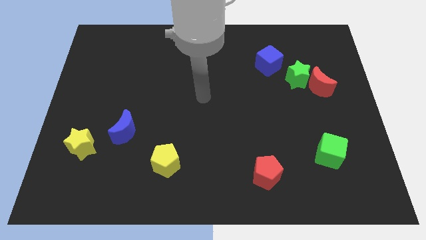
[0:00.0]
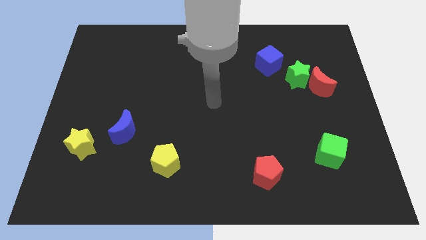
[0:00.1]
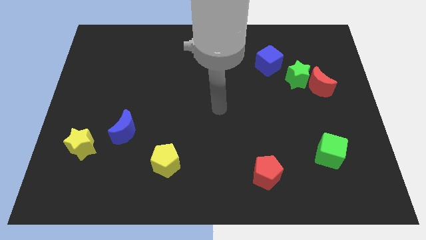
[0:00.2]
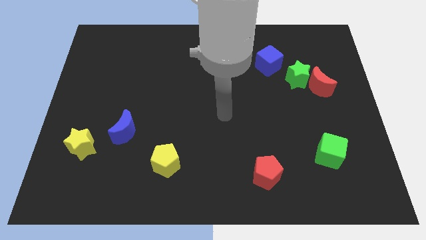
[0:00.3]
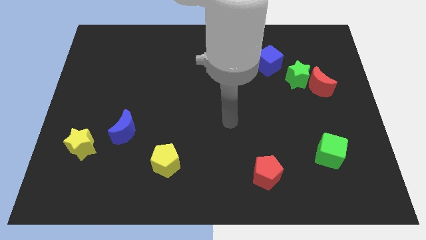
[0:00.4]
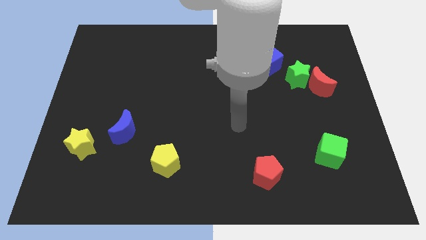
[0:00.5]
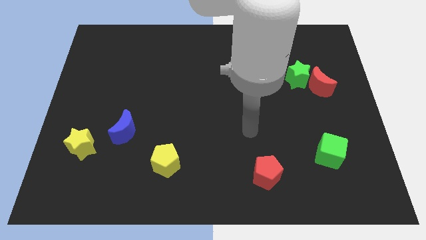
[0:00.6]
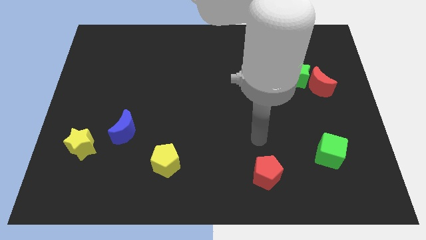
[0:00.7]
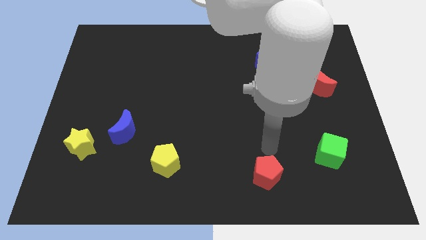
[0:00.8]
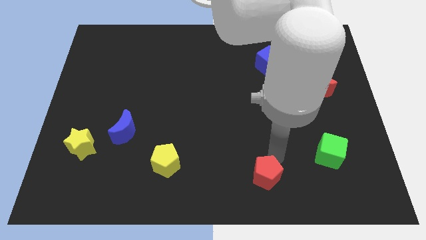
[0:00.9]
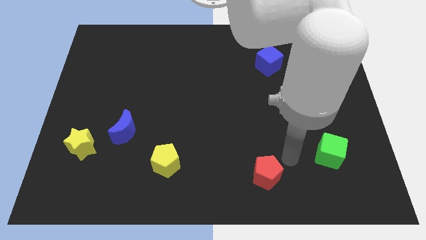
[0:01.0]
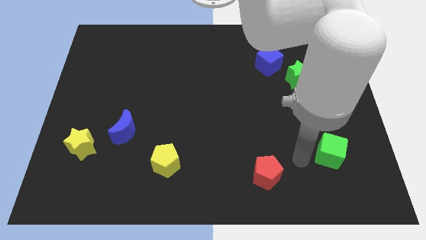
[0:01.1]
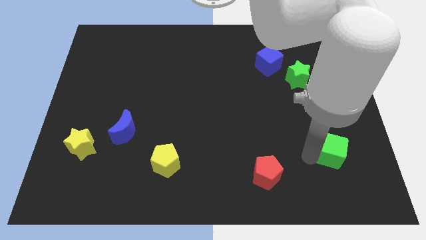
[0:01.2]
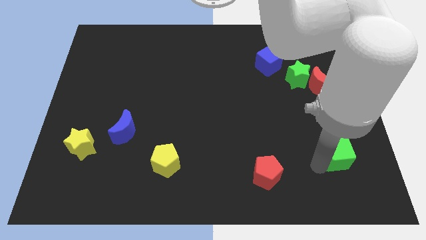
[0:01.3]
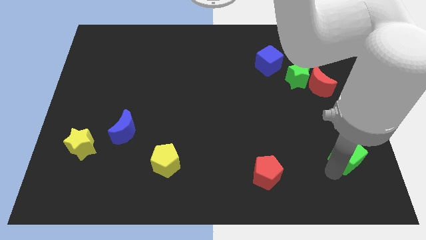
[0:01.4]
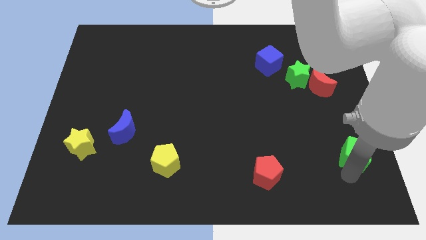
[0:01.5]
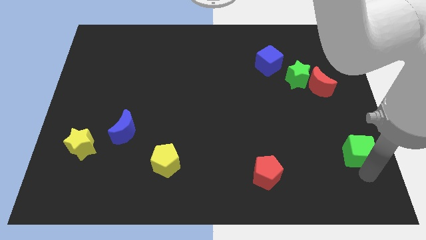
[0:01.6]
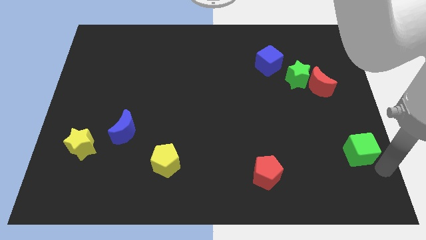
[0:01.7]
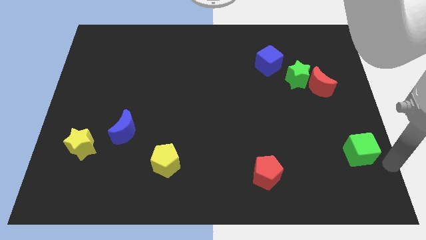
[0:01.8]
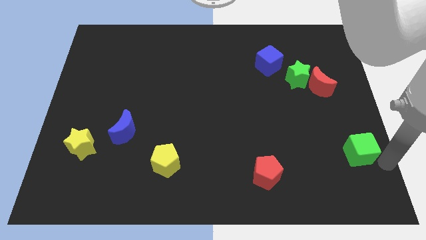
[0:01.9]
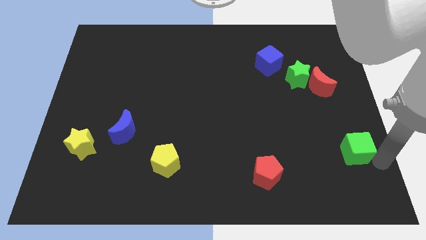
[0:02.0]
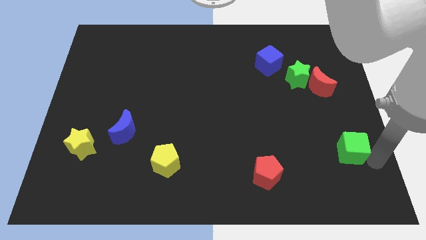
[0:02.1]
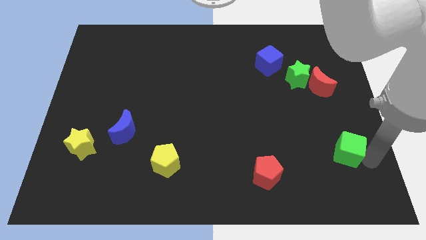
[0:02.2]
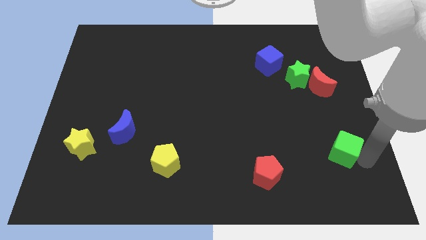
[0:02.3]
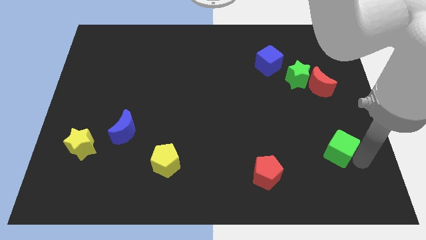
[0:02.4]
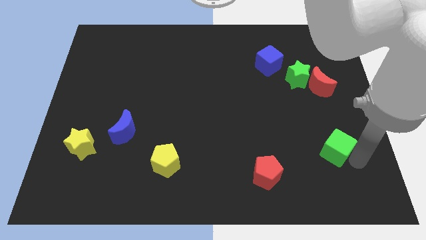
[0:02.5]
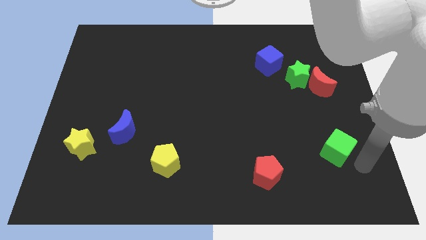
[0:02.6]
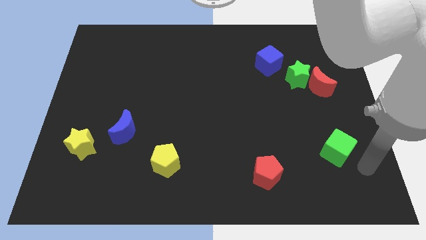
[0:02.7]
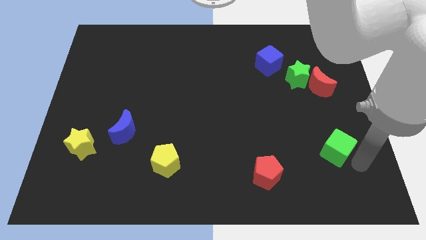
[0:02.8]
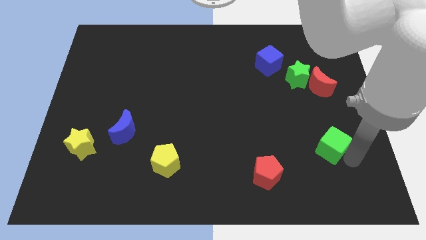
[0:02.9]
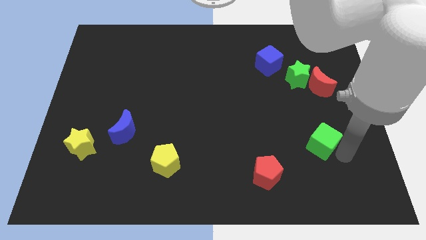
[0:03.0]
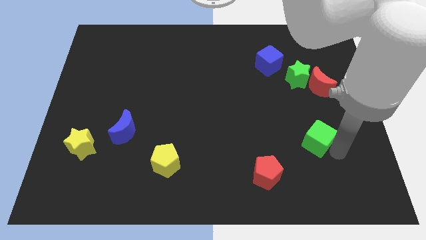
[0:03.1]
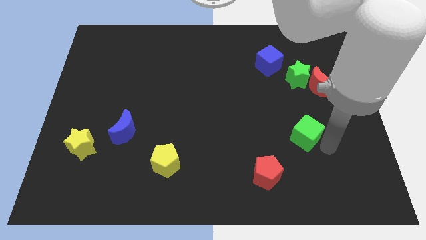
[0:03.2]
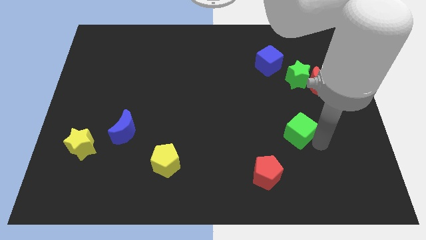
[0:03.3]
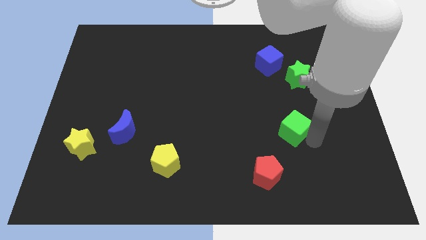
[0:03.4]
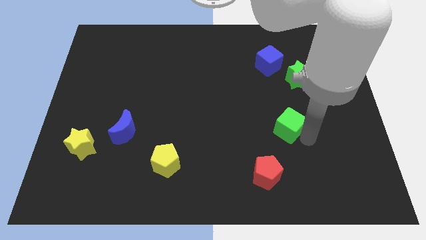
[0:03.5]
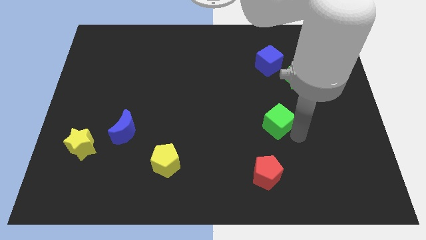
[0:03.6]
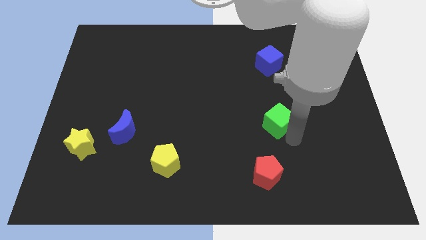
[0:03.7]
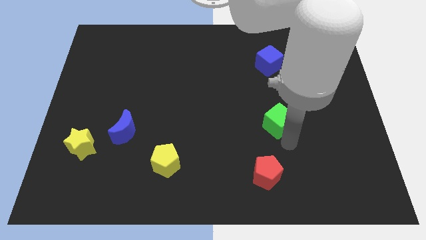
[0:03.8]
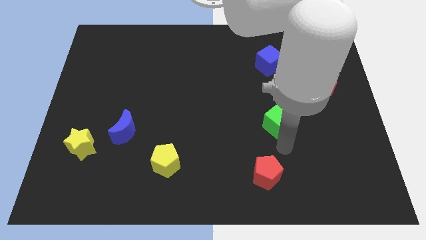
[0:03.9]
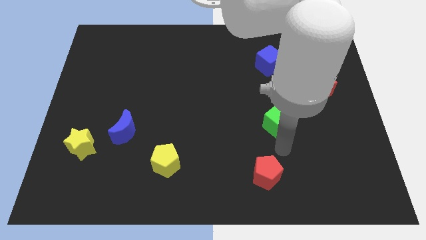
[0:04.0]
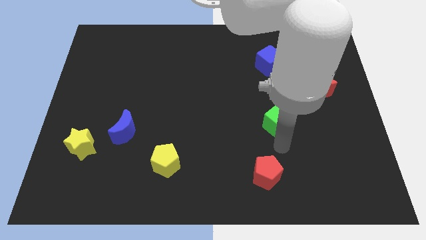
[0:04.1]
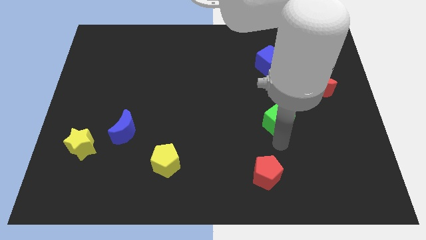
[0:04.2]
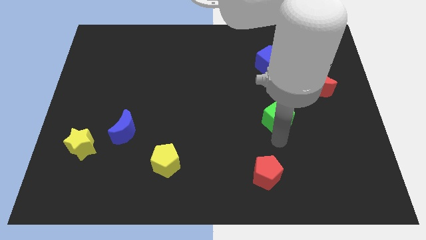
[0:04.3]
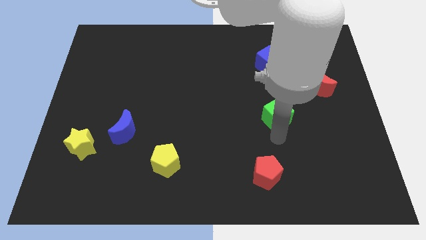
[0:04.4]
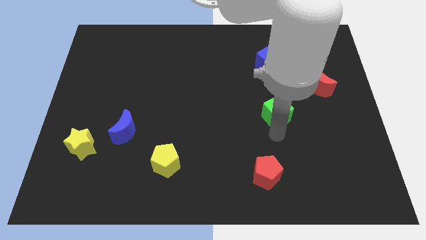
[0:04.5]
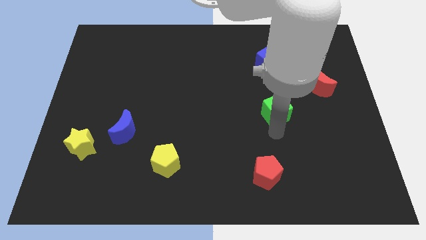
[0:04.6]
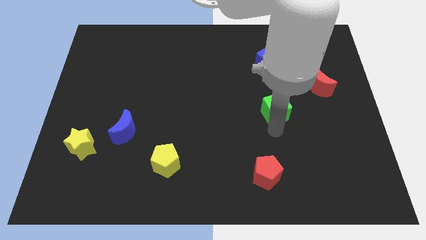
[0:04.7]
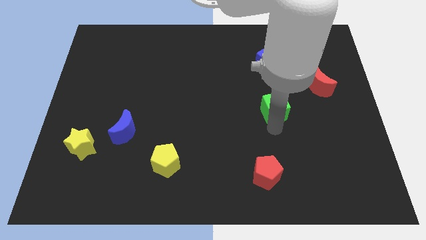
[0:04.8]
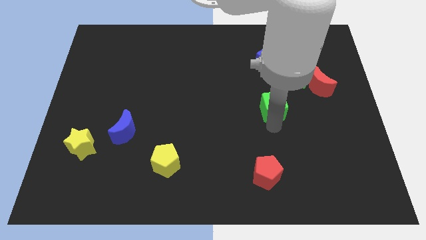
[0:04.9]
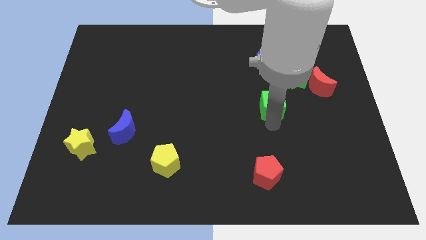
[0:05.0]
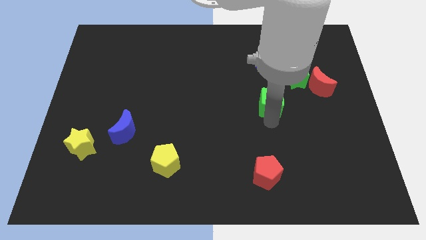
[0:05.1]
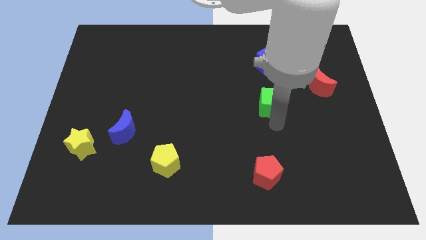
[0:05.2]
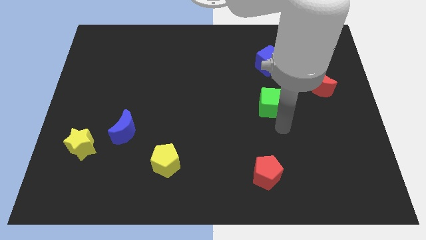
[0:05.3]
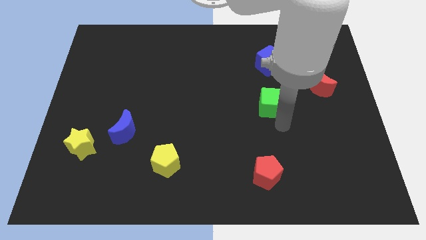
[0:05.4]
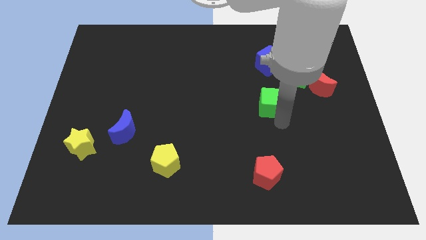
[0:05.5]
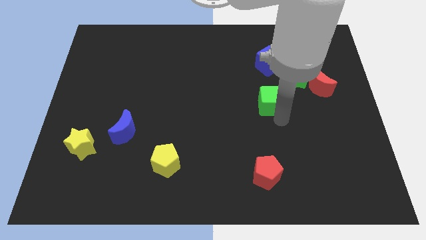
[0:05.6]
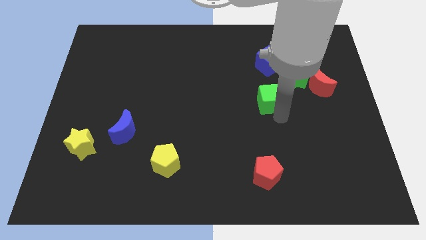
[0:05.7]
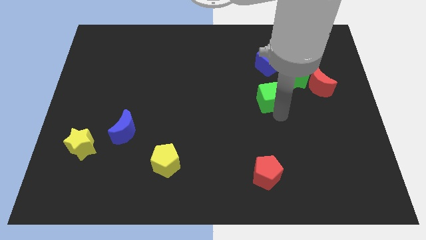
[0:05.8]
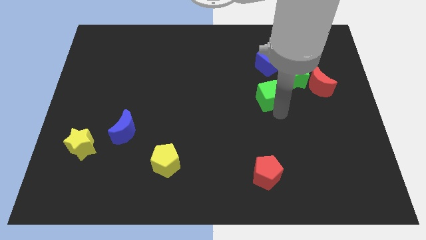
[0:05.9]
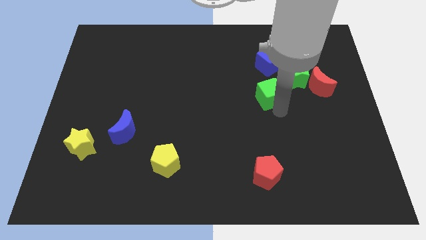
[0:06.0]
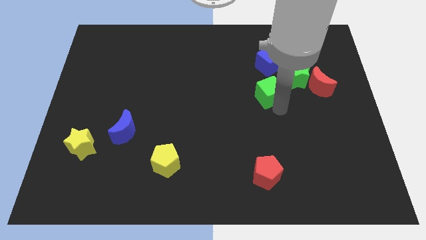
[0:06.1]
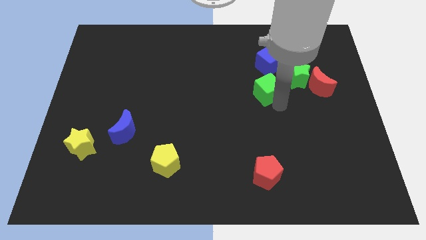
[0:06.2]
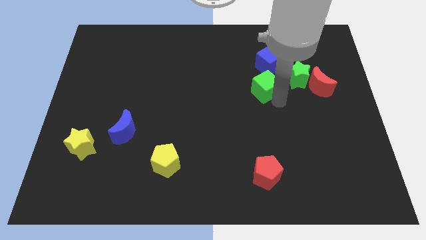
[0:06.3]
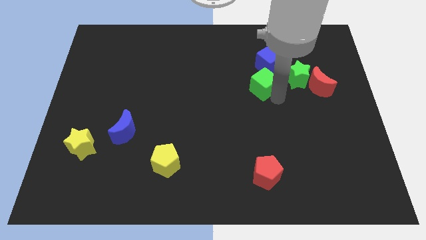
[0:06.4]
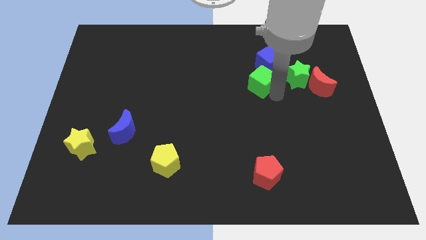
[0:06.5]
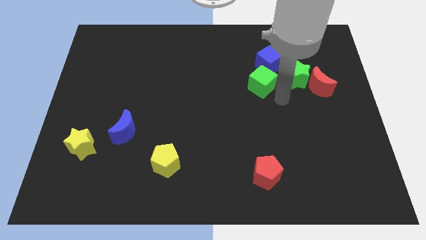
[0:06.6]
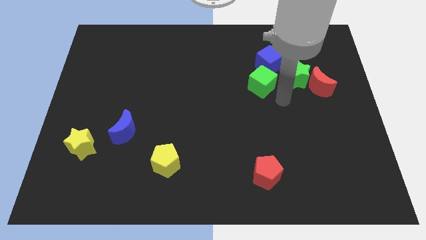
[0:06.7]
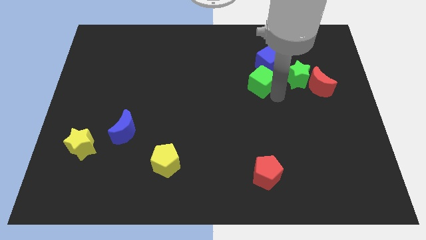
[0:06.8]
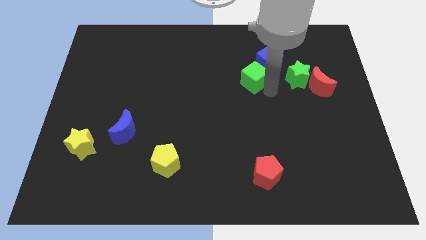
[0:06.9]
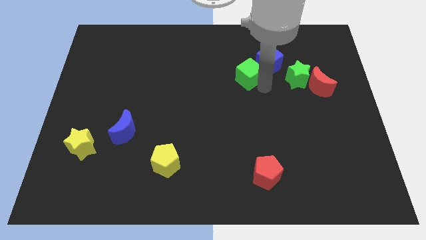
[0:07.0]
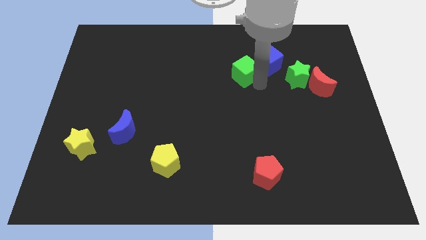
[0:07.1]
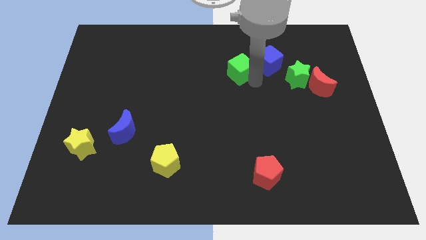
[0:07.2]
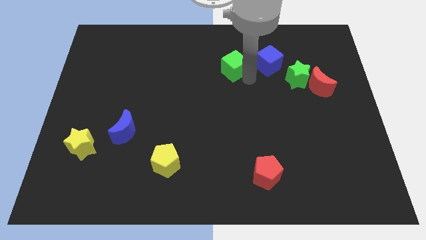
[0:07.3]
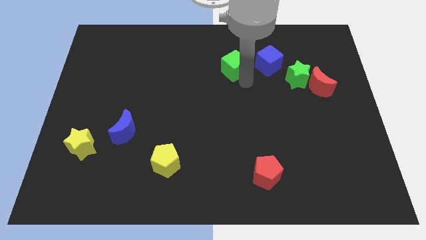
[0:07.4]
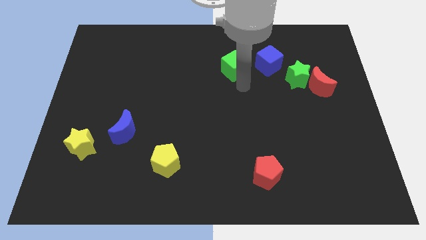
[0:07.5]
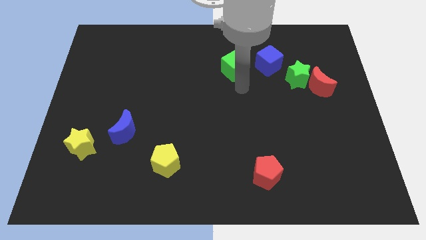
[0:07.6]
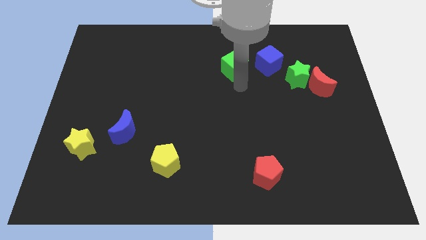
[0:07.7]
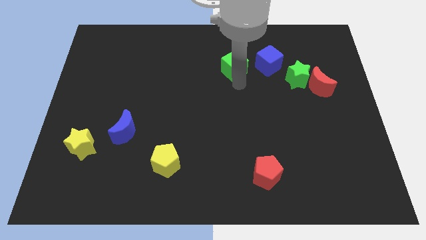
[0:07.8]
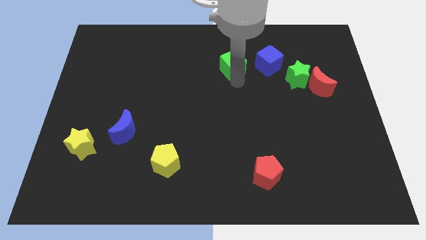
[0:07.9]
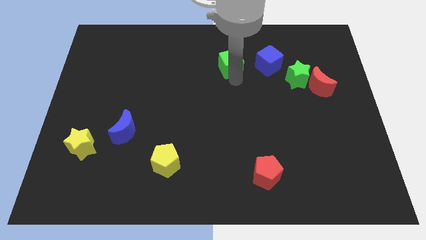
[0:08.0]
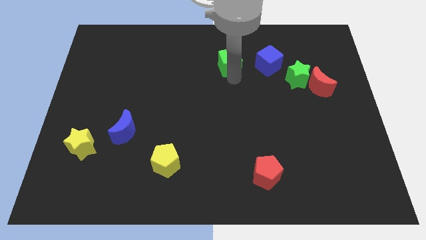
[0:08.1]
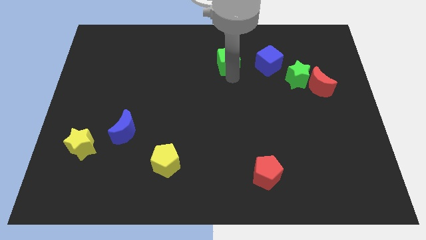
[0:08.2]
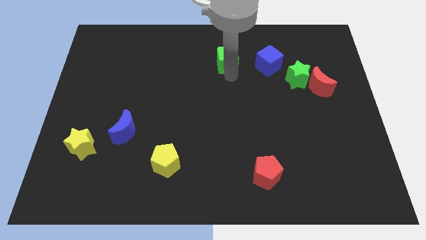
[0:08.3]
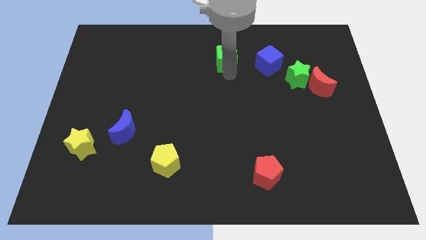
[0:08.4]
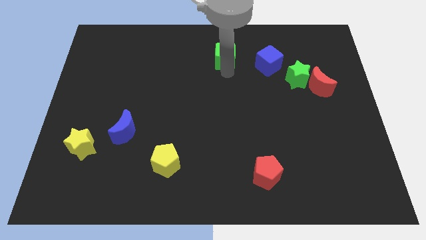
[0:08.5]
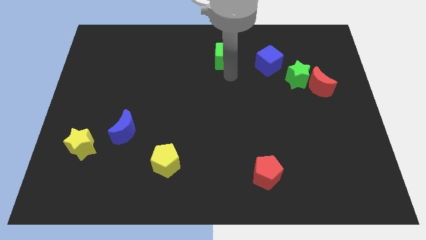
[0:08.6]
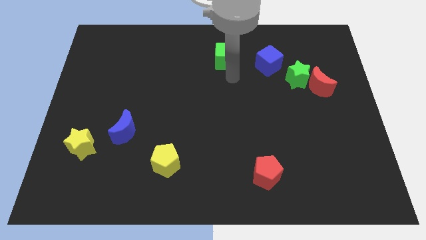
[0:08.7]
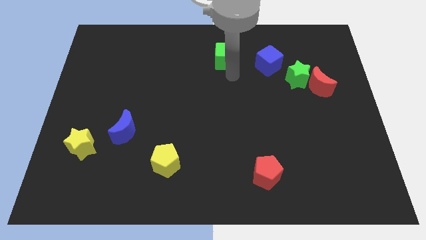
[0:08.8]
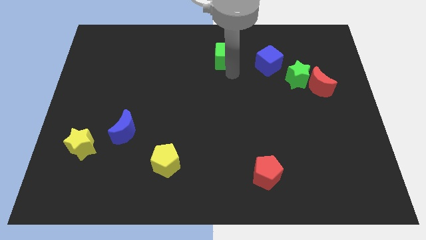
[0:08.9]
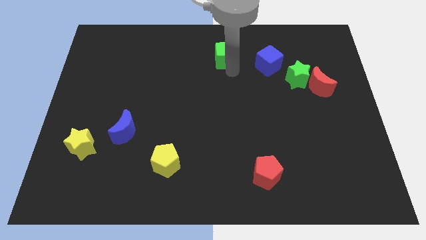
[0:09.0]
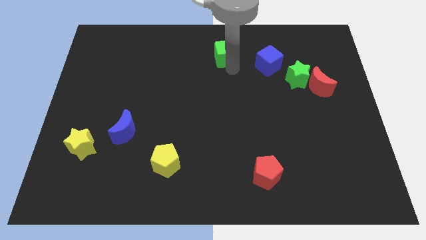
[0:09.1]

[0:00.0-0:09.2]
slide the green cube to the towards your base
